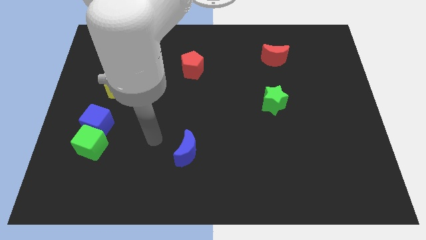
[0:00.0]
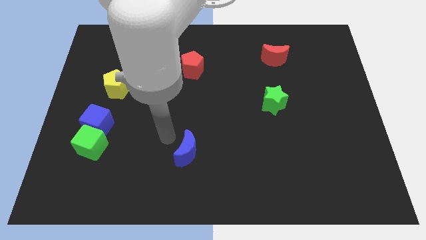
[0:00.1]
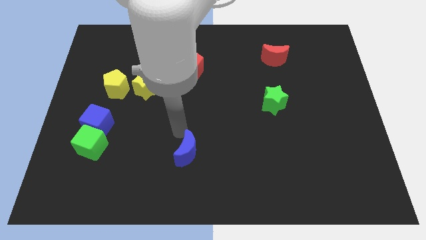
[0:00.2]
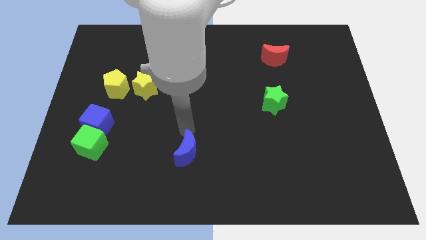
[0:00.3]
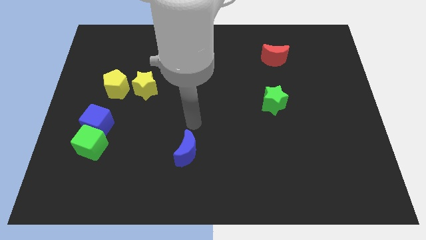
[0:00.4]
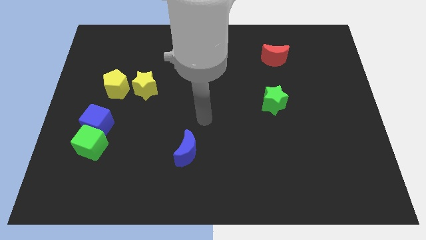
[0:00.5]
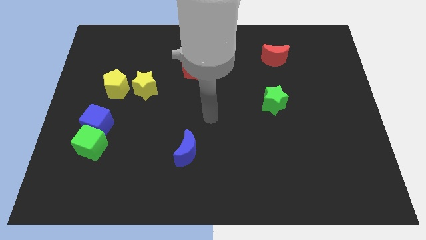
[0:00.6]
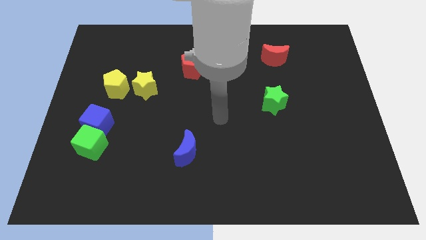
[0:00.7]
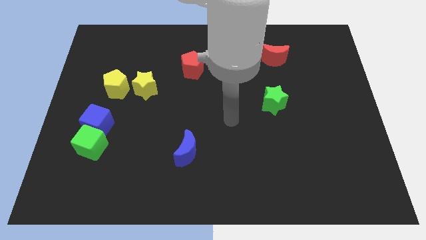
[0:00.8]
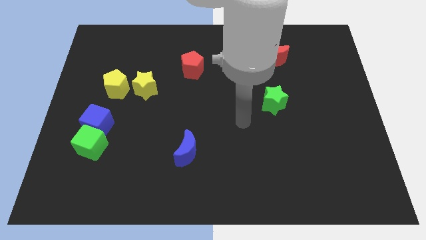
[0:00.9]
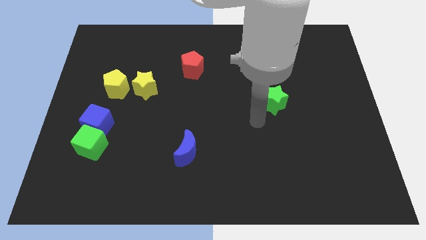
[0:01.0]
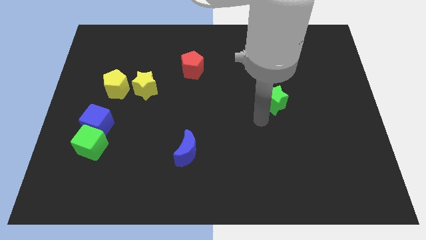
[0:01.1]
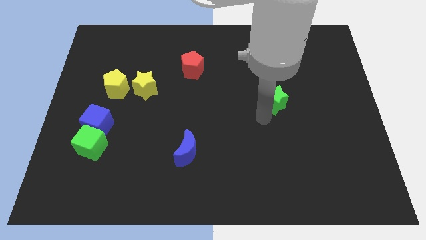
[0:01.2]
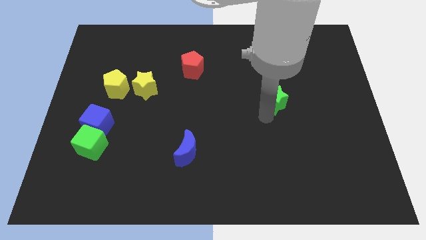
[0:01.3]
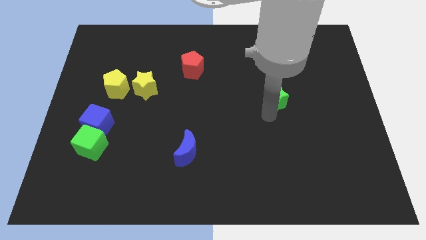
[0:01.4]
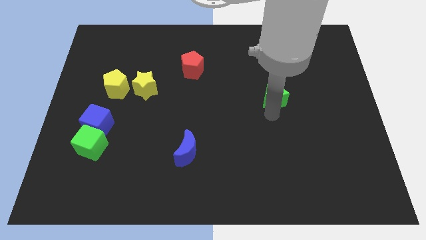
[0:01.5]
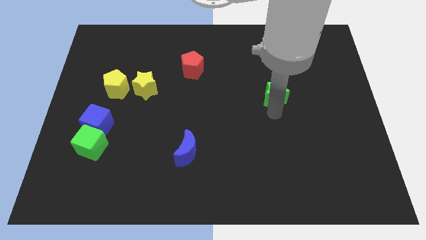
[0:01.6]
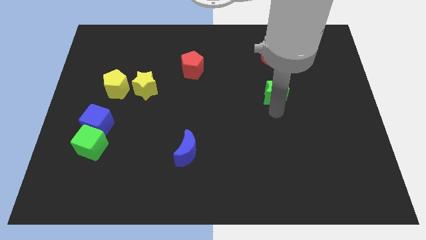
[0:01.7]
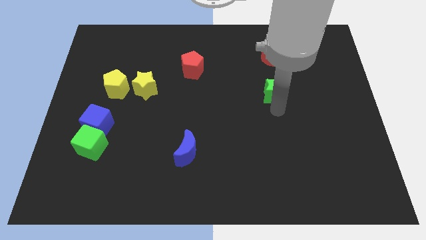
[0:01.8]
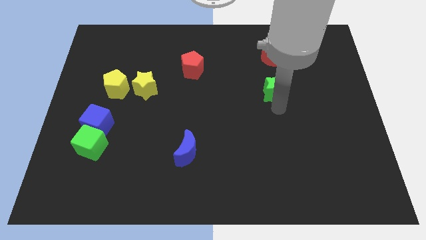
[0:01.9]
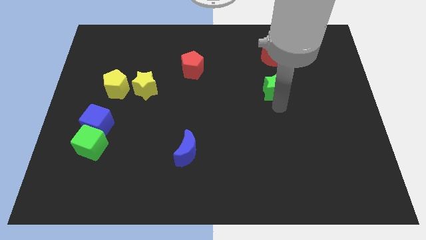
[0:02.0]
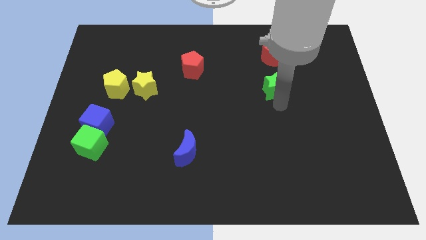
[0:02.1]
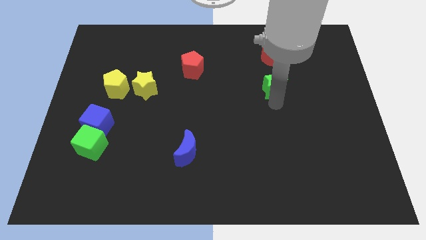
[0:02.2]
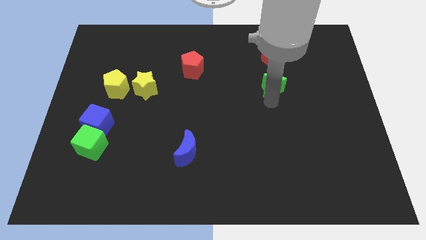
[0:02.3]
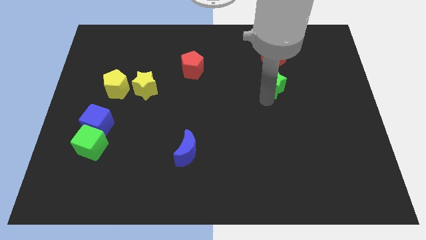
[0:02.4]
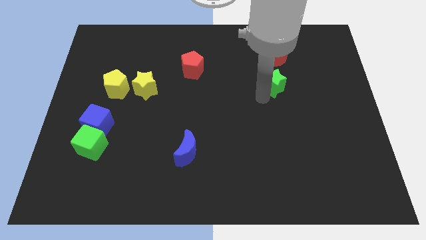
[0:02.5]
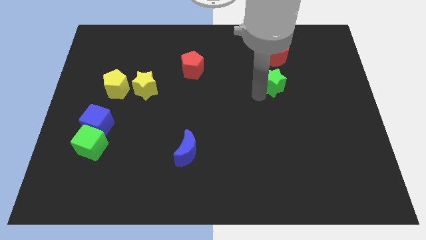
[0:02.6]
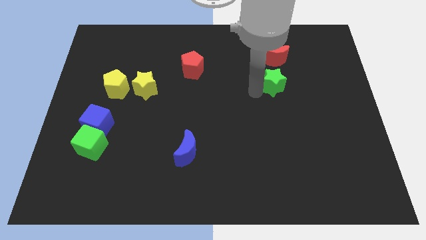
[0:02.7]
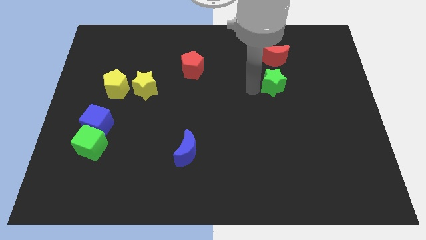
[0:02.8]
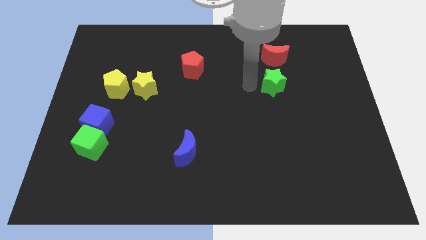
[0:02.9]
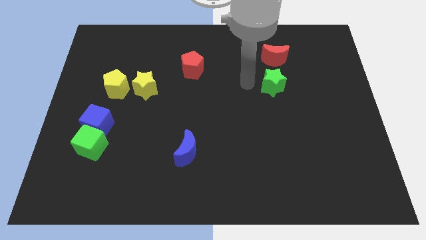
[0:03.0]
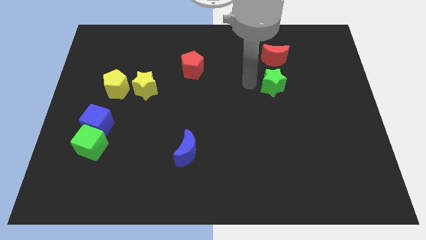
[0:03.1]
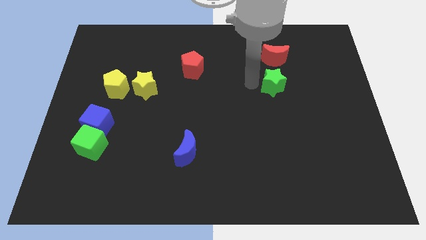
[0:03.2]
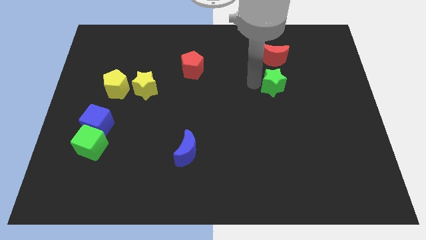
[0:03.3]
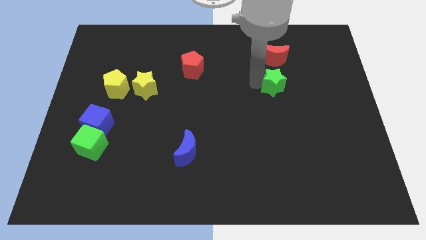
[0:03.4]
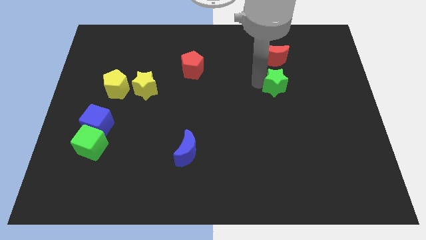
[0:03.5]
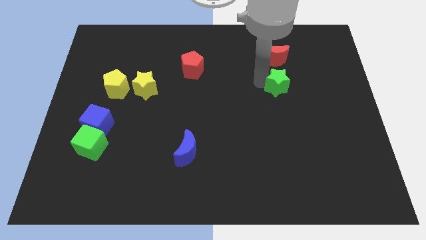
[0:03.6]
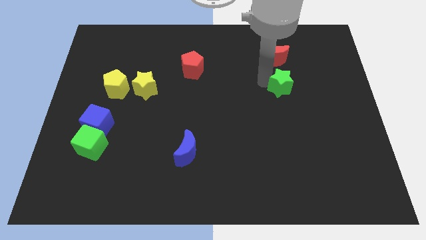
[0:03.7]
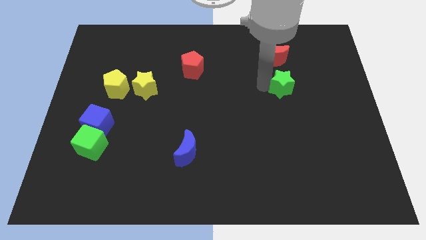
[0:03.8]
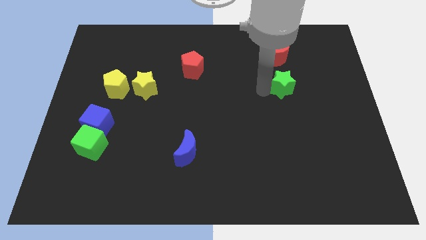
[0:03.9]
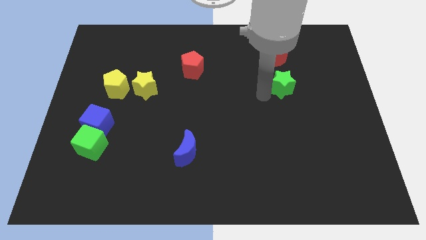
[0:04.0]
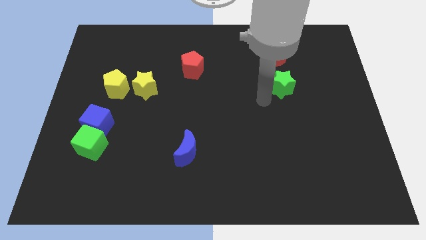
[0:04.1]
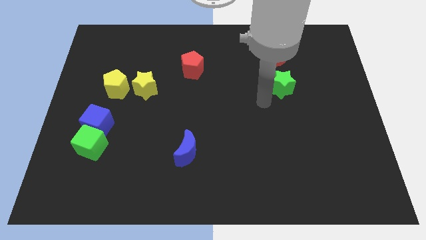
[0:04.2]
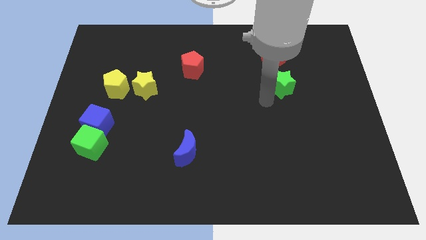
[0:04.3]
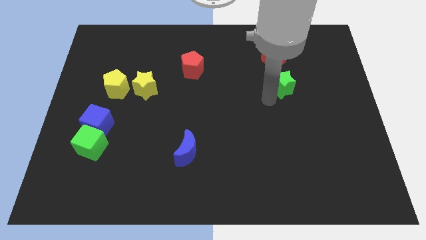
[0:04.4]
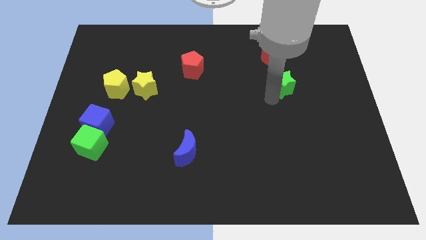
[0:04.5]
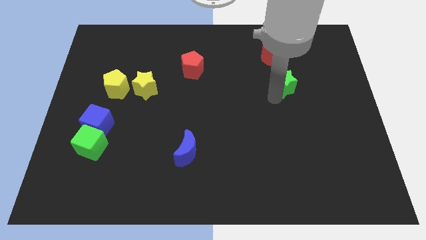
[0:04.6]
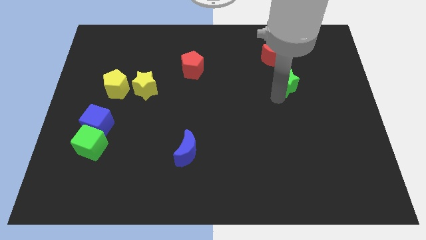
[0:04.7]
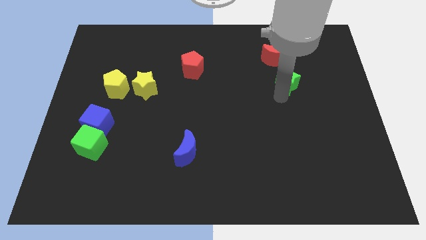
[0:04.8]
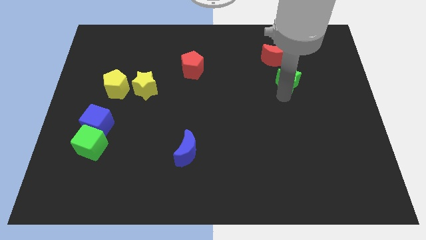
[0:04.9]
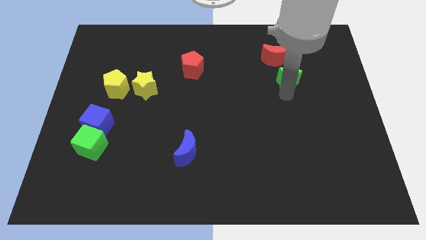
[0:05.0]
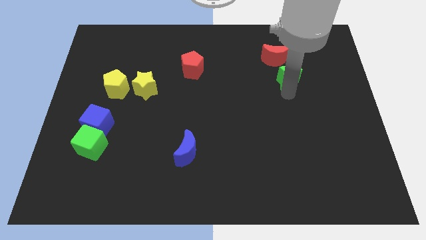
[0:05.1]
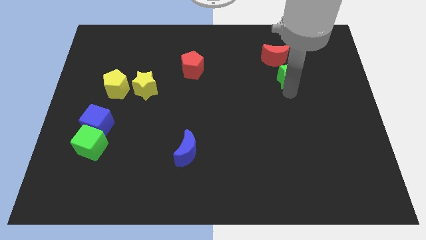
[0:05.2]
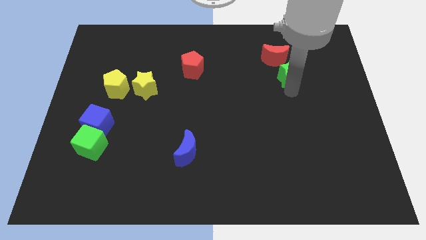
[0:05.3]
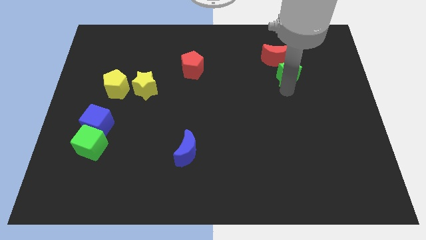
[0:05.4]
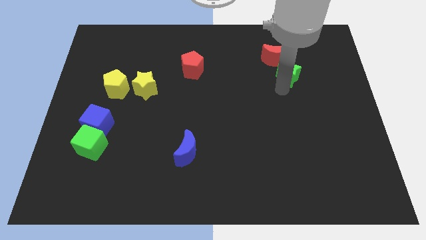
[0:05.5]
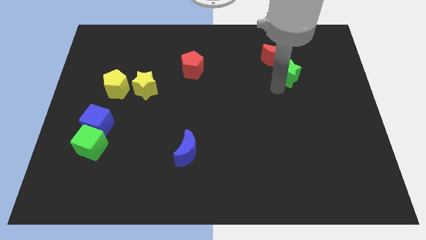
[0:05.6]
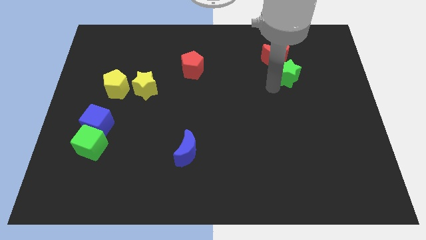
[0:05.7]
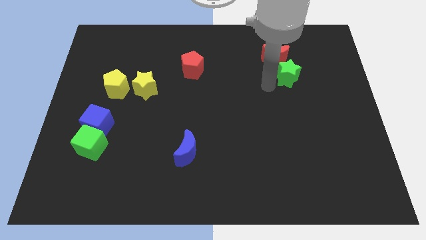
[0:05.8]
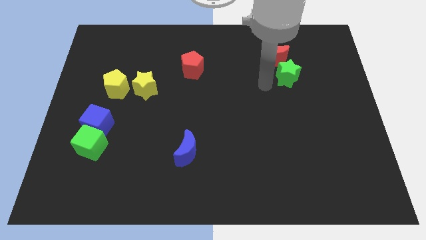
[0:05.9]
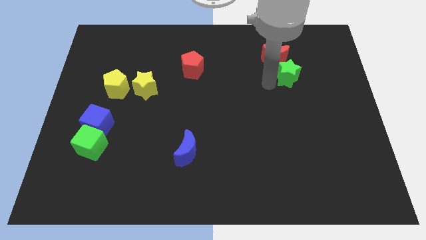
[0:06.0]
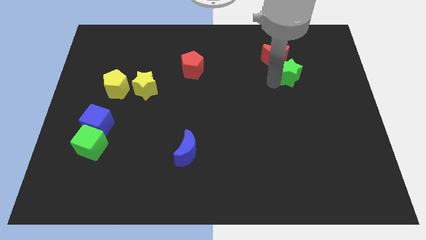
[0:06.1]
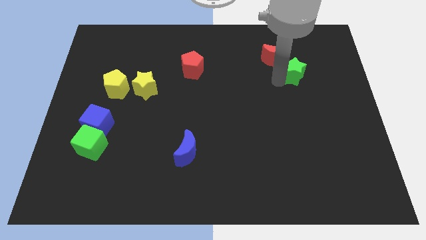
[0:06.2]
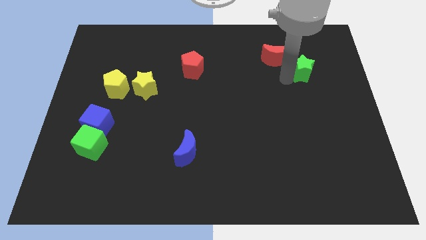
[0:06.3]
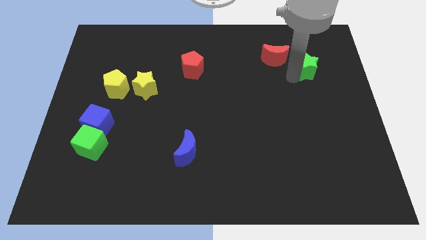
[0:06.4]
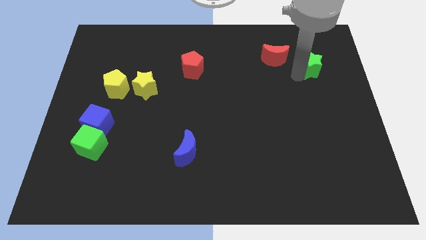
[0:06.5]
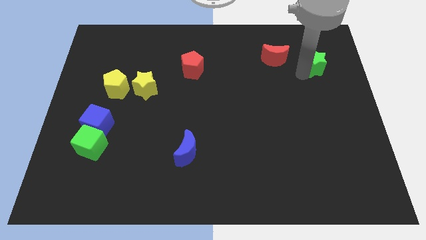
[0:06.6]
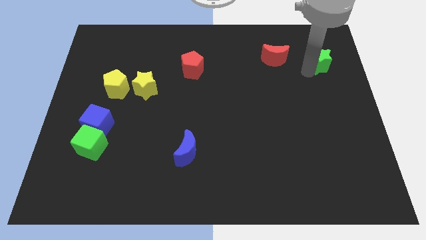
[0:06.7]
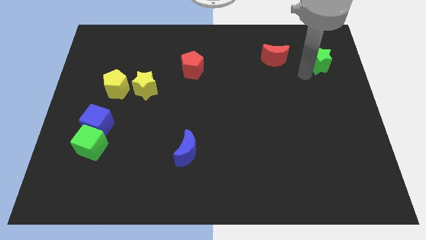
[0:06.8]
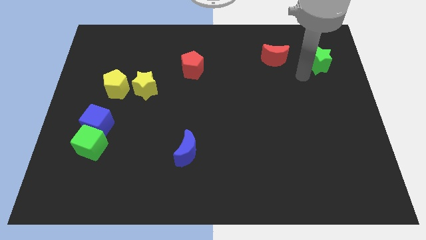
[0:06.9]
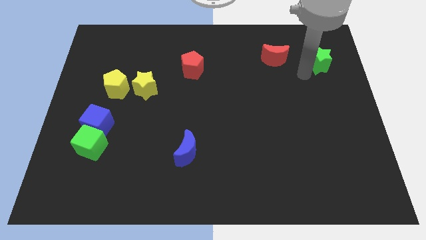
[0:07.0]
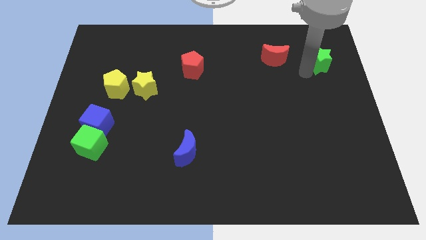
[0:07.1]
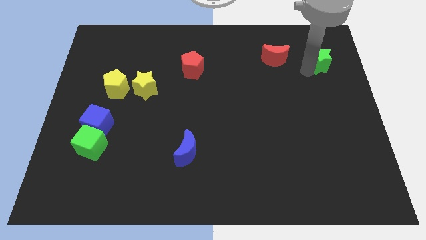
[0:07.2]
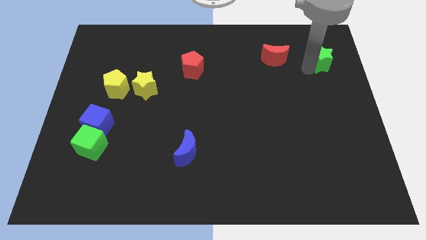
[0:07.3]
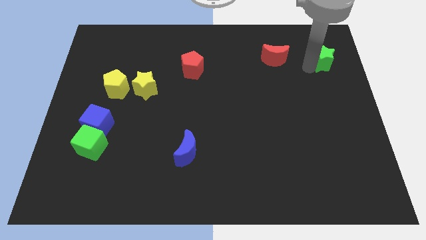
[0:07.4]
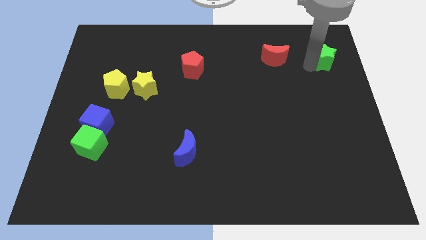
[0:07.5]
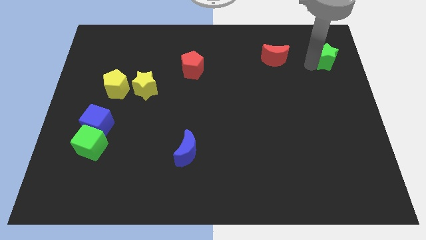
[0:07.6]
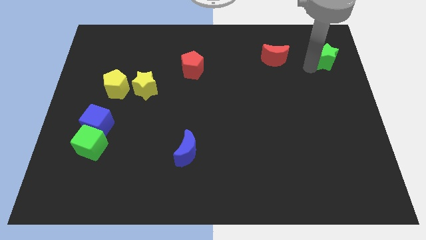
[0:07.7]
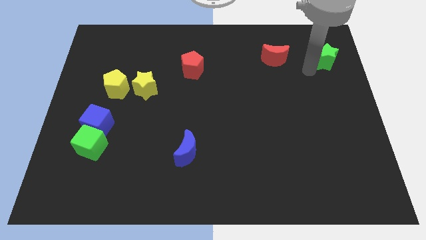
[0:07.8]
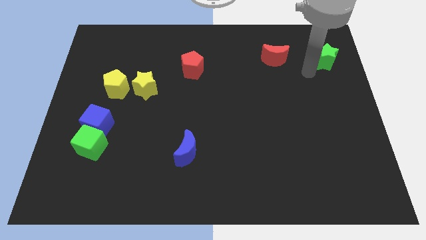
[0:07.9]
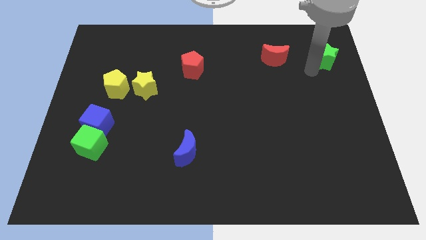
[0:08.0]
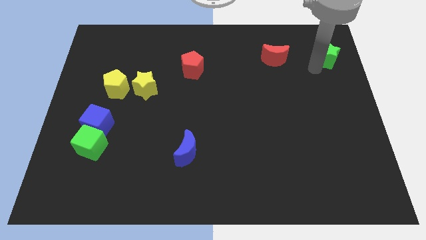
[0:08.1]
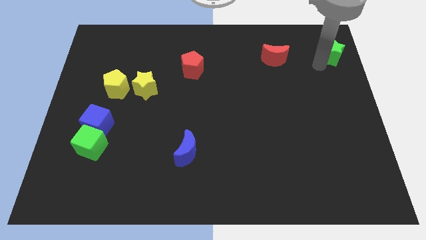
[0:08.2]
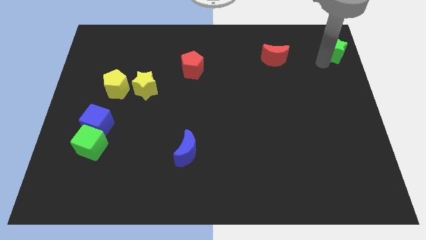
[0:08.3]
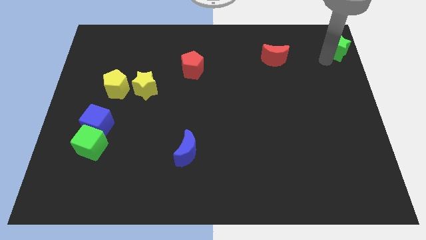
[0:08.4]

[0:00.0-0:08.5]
move the green star to the top right of the board
